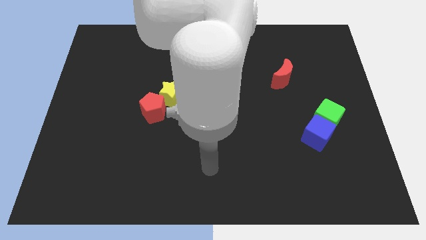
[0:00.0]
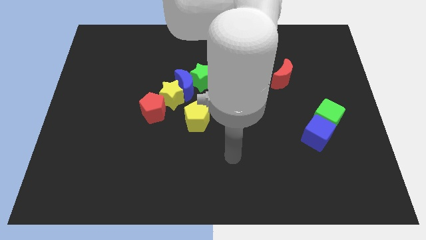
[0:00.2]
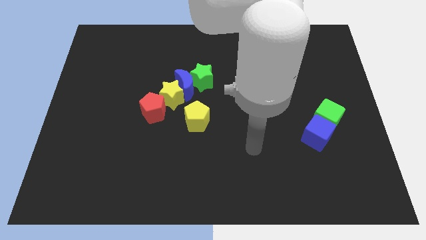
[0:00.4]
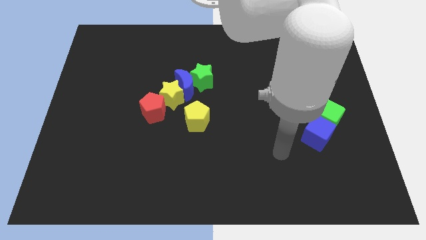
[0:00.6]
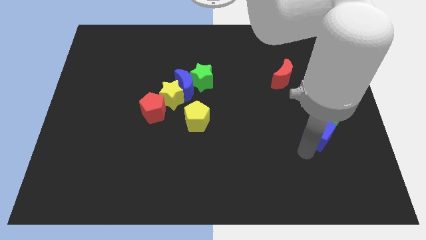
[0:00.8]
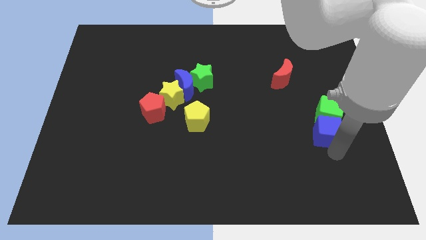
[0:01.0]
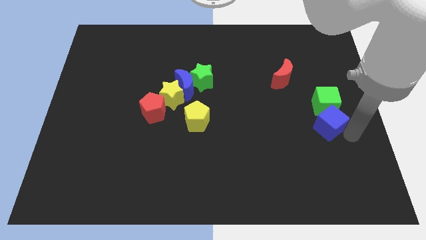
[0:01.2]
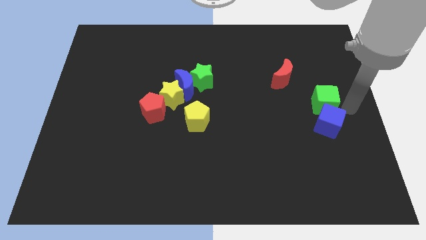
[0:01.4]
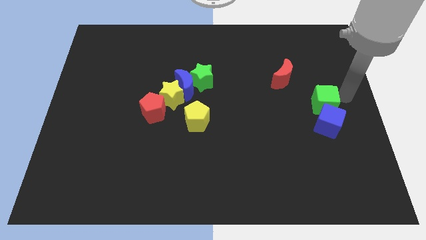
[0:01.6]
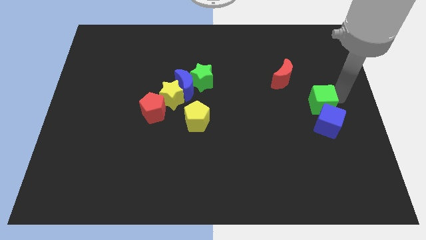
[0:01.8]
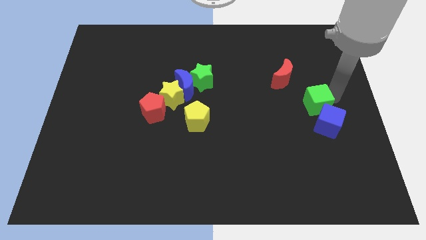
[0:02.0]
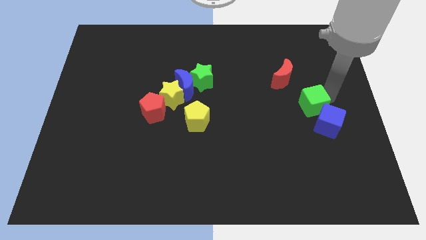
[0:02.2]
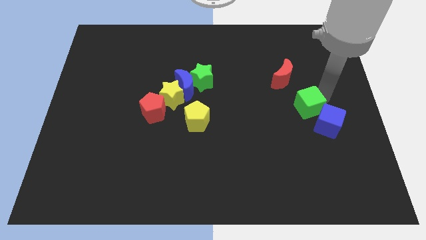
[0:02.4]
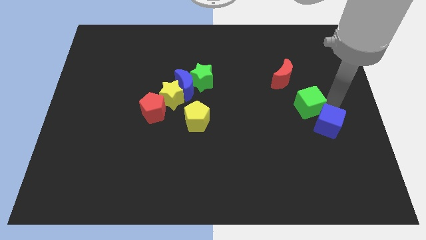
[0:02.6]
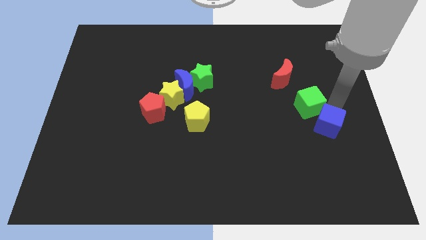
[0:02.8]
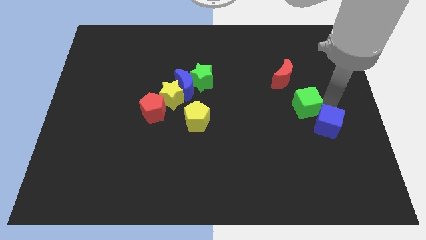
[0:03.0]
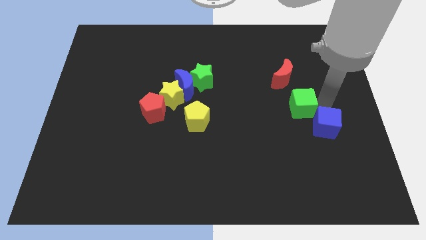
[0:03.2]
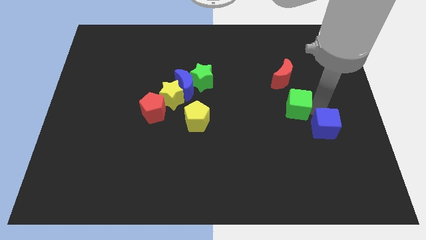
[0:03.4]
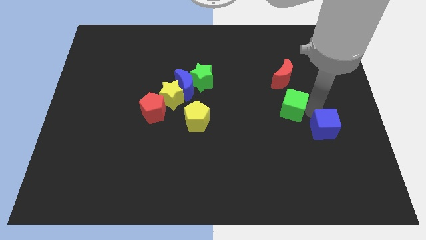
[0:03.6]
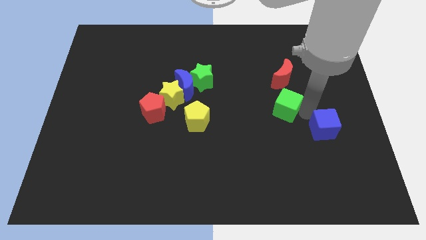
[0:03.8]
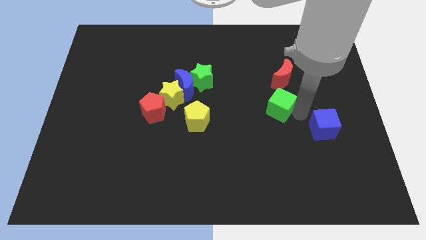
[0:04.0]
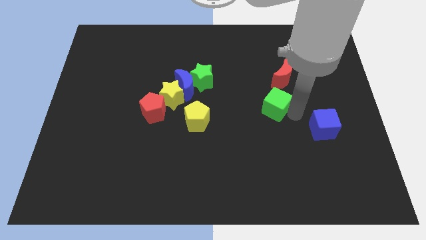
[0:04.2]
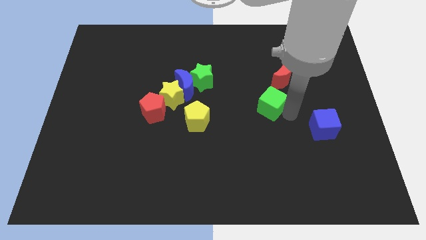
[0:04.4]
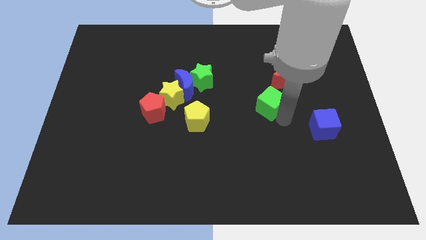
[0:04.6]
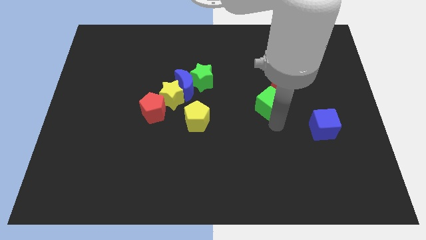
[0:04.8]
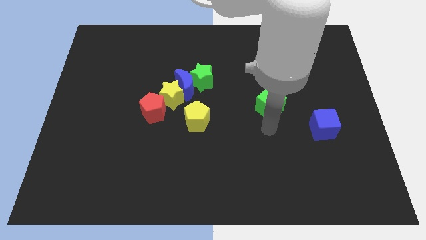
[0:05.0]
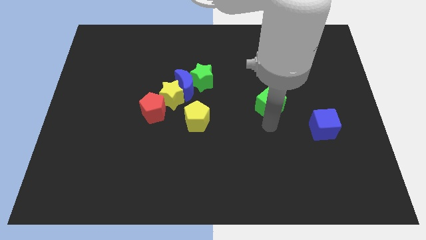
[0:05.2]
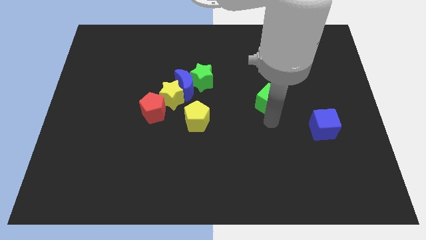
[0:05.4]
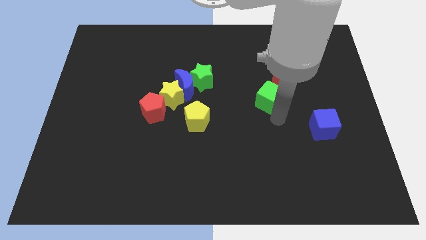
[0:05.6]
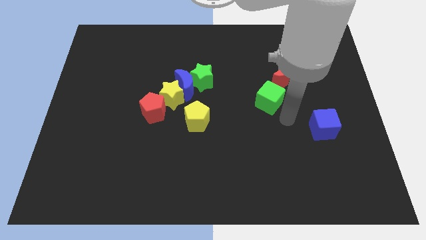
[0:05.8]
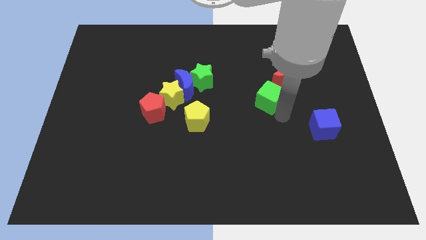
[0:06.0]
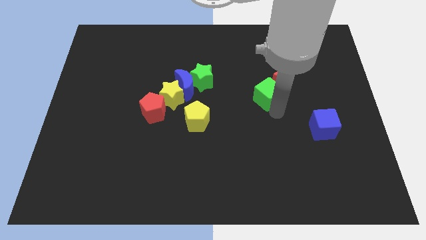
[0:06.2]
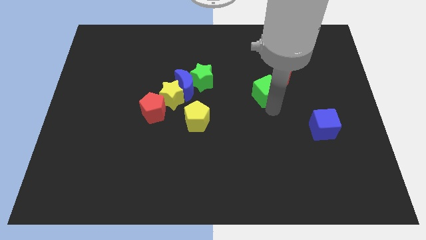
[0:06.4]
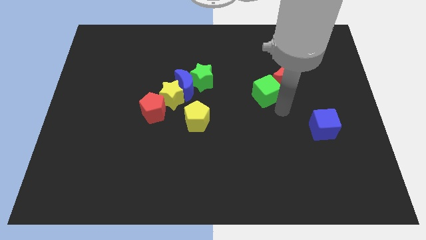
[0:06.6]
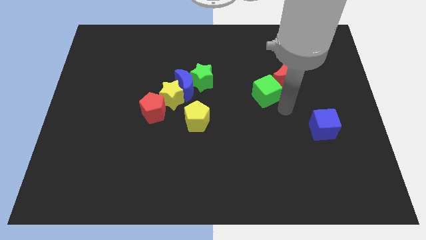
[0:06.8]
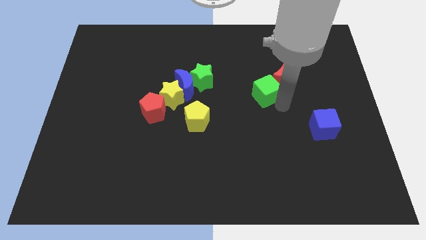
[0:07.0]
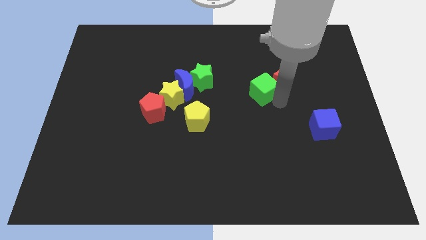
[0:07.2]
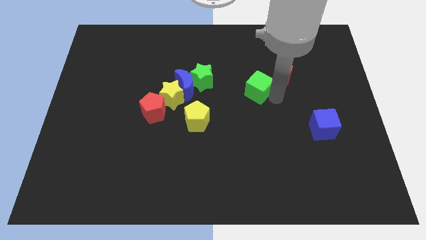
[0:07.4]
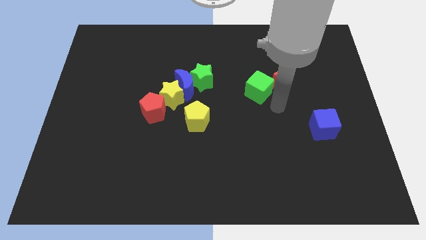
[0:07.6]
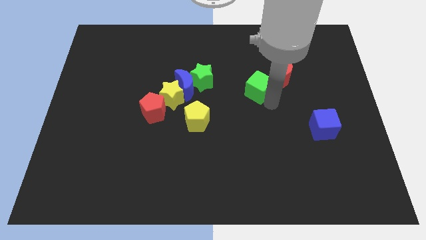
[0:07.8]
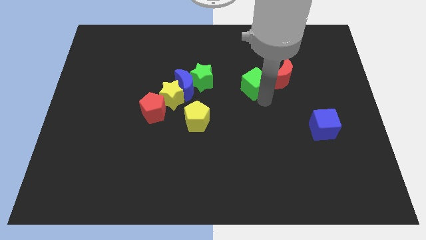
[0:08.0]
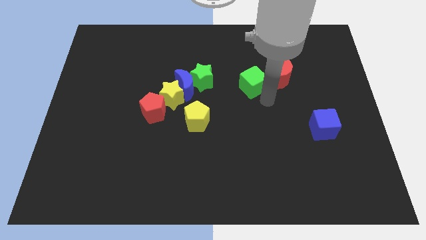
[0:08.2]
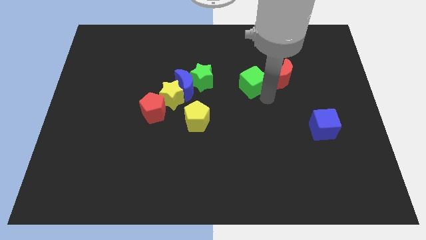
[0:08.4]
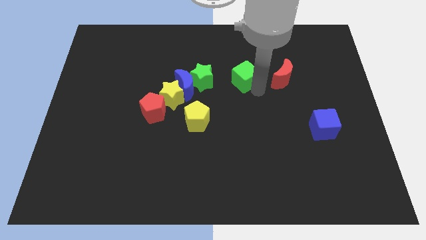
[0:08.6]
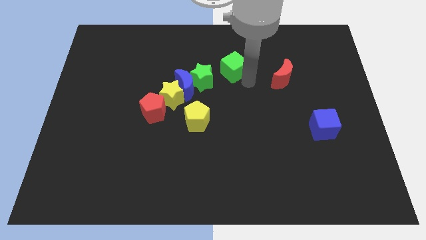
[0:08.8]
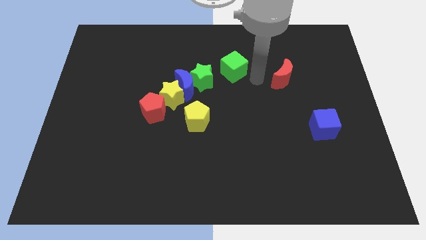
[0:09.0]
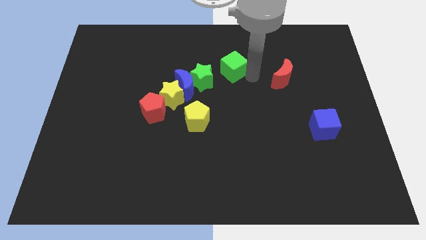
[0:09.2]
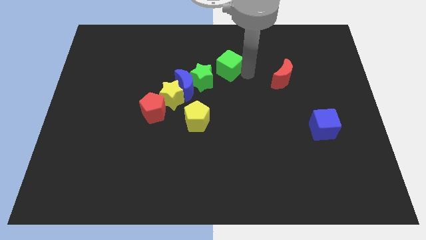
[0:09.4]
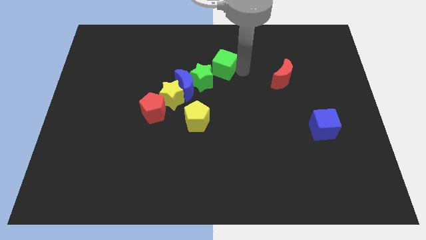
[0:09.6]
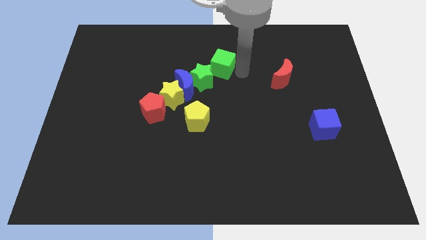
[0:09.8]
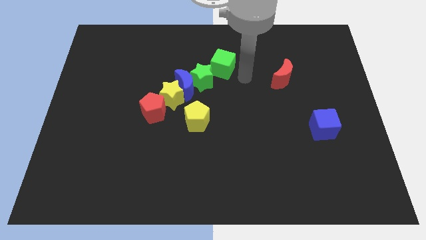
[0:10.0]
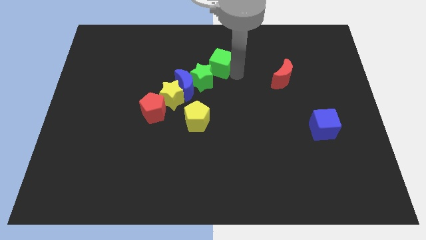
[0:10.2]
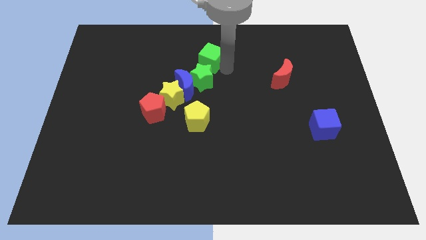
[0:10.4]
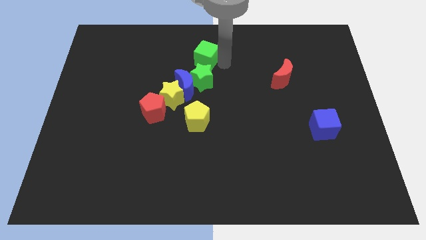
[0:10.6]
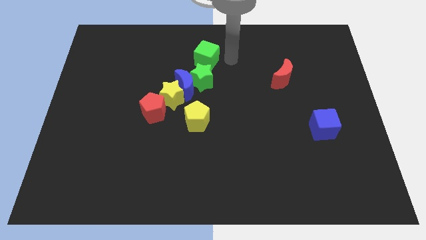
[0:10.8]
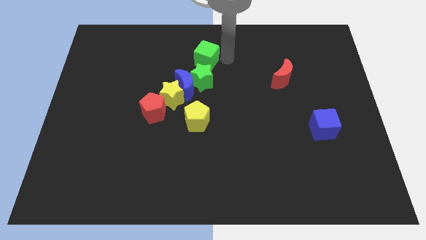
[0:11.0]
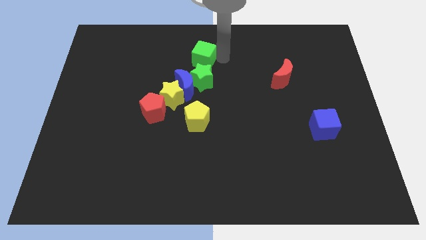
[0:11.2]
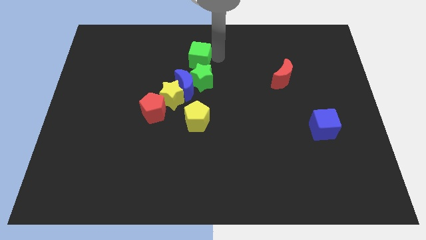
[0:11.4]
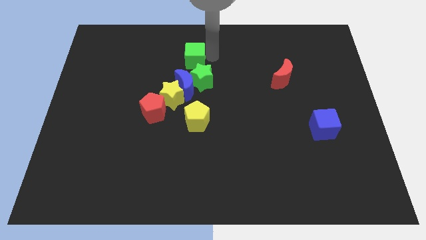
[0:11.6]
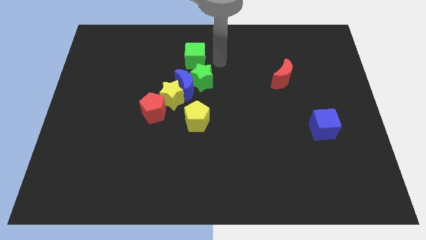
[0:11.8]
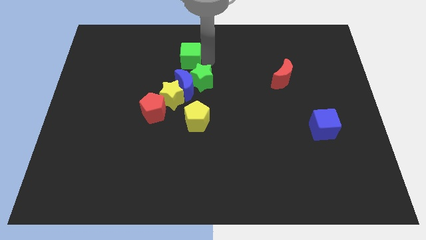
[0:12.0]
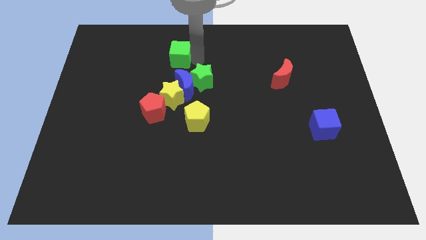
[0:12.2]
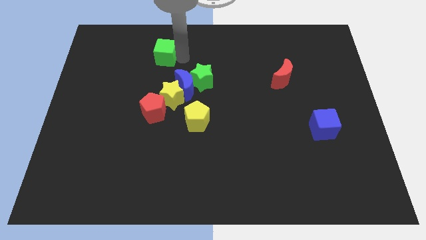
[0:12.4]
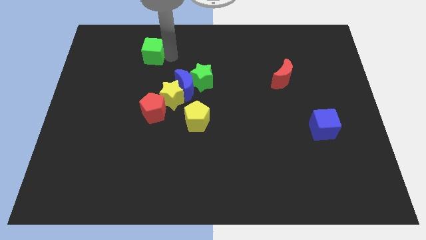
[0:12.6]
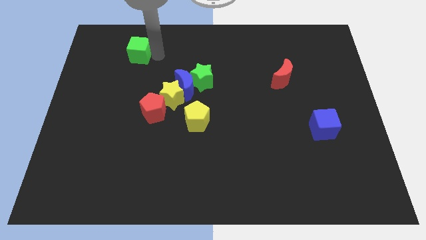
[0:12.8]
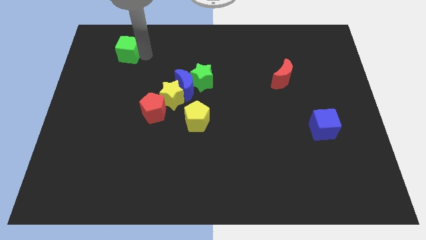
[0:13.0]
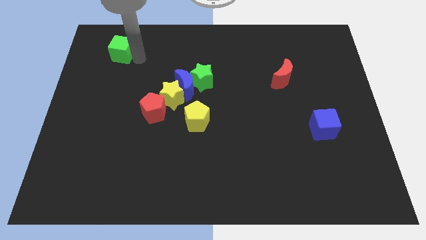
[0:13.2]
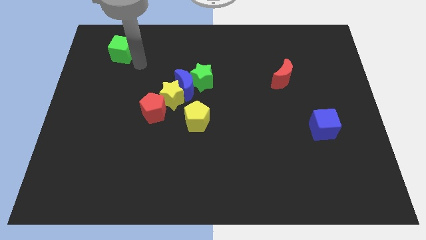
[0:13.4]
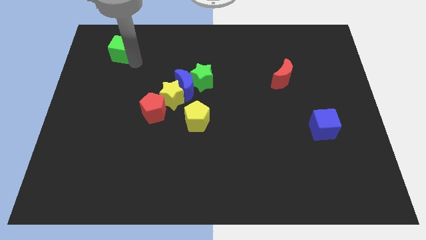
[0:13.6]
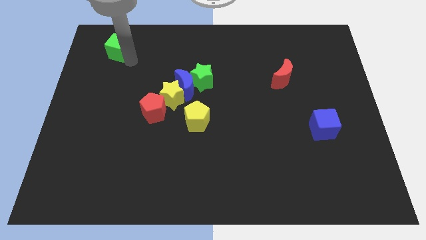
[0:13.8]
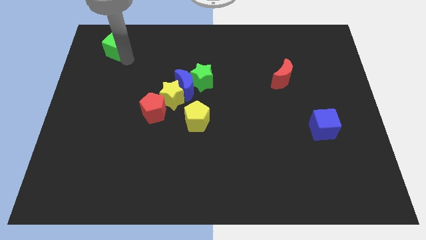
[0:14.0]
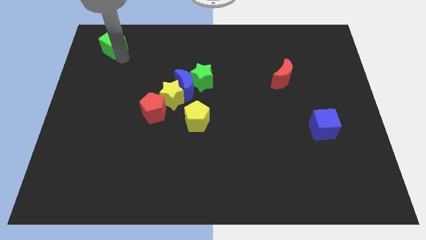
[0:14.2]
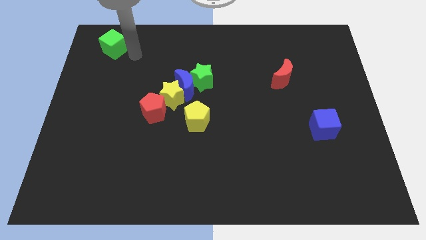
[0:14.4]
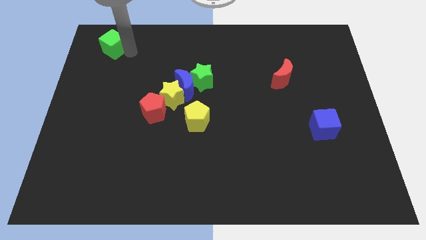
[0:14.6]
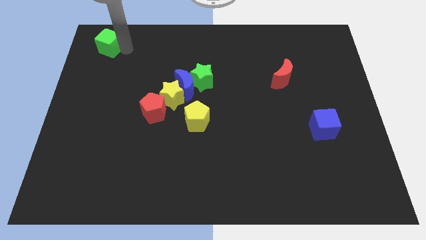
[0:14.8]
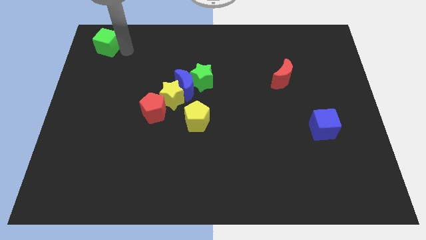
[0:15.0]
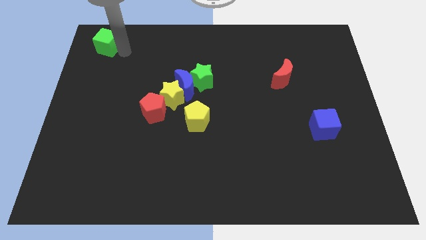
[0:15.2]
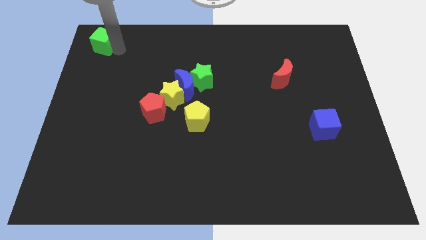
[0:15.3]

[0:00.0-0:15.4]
put the green cube to the upper left corner
